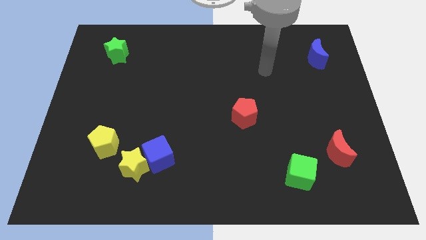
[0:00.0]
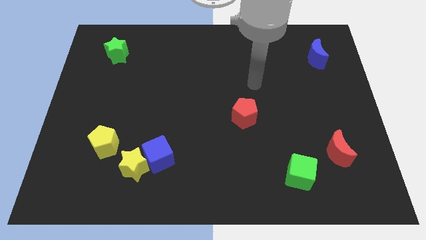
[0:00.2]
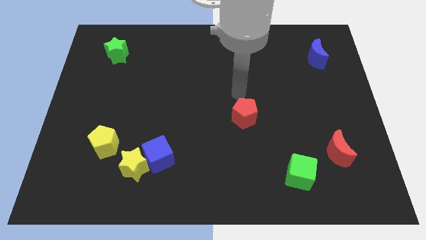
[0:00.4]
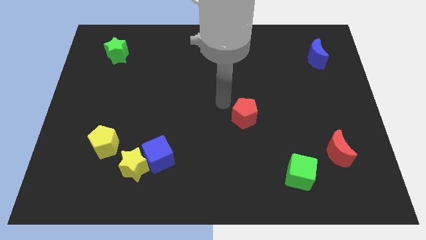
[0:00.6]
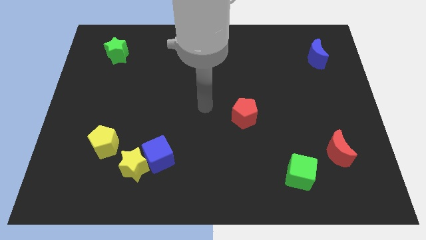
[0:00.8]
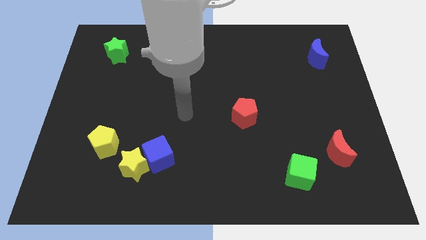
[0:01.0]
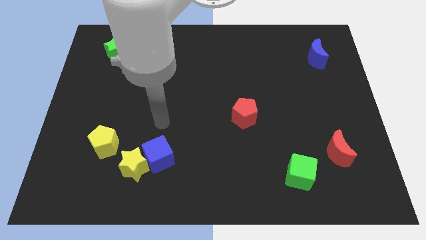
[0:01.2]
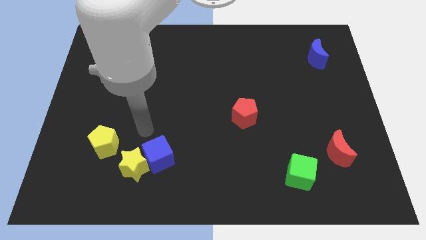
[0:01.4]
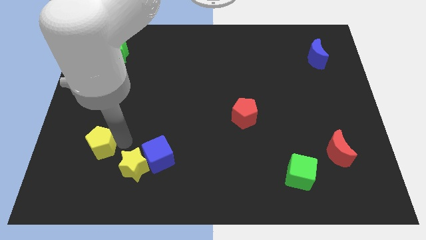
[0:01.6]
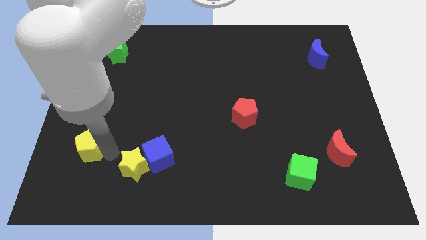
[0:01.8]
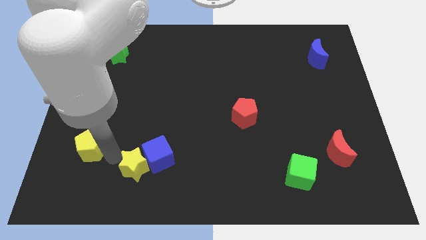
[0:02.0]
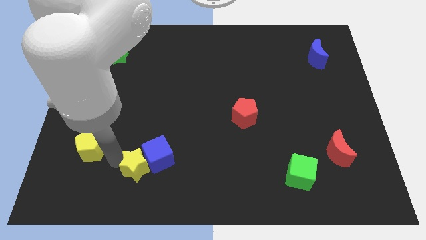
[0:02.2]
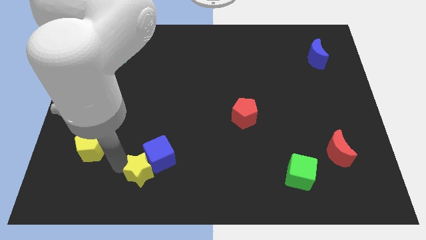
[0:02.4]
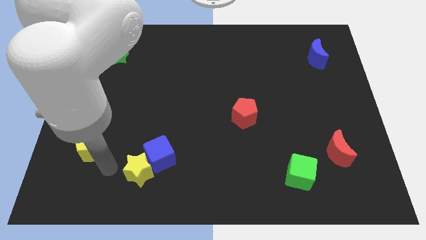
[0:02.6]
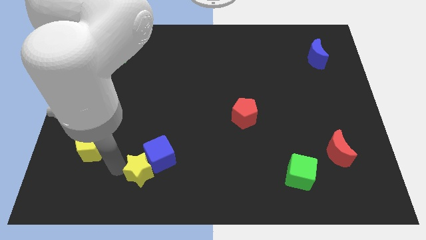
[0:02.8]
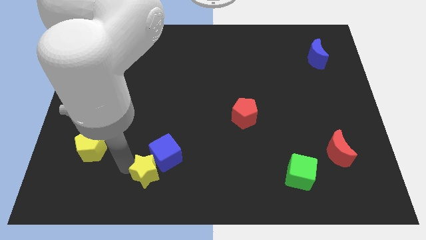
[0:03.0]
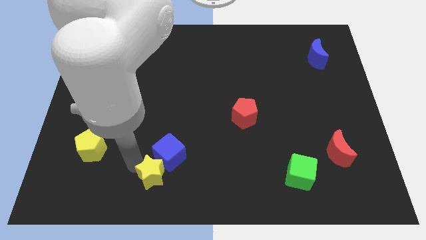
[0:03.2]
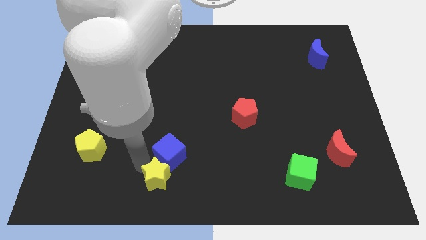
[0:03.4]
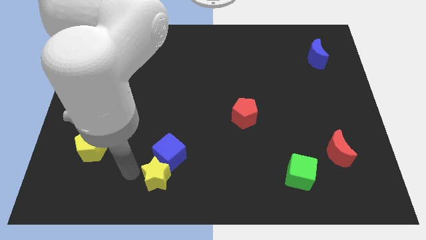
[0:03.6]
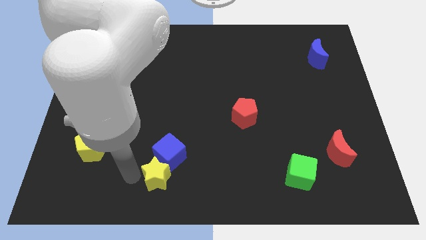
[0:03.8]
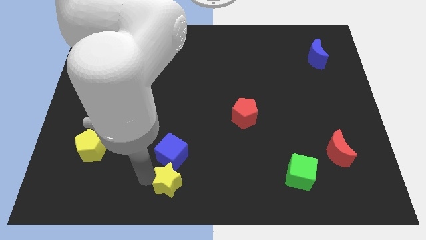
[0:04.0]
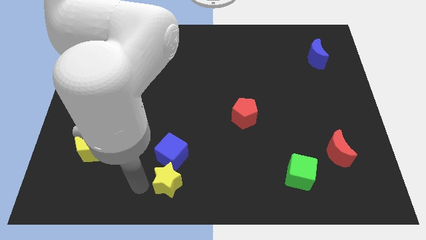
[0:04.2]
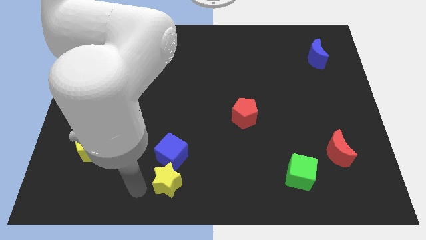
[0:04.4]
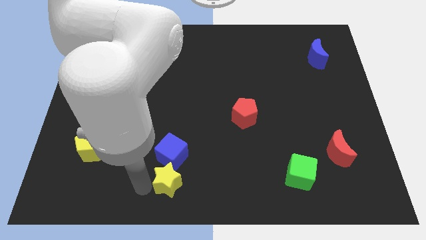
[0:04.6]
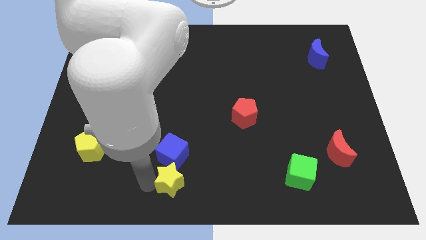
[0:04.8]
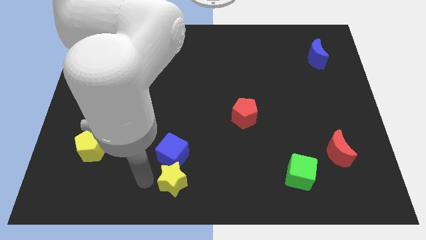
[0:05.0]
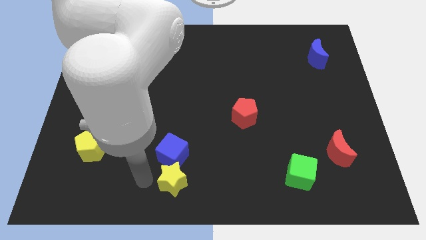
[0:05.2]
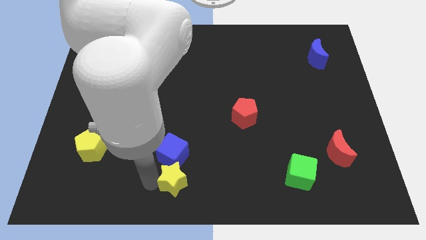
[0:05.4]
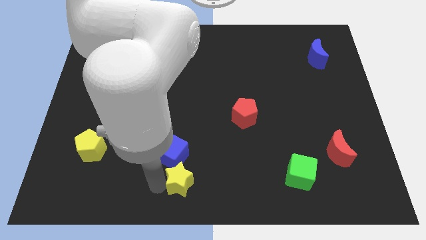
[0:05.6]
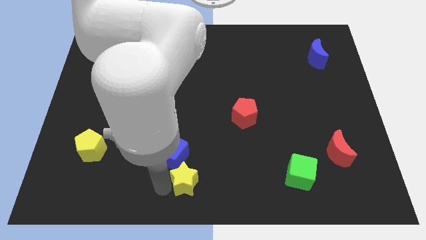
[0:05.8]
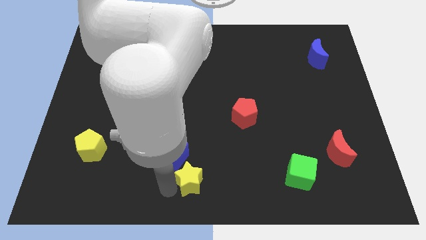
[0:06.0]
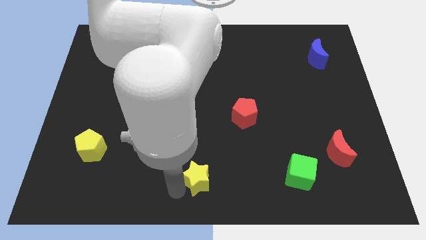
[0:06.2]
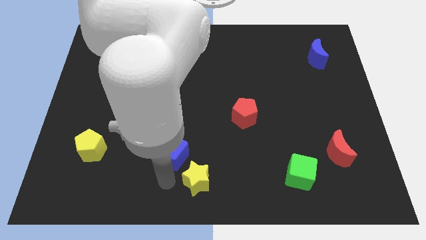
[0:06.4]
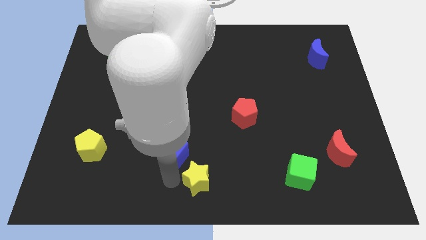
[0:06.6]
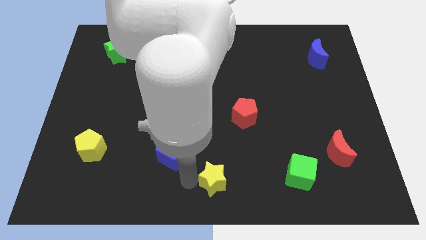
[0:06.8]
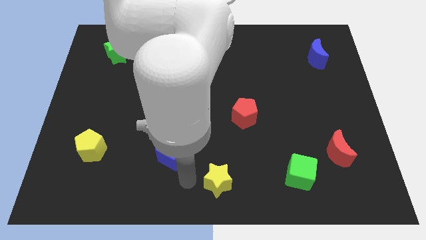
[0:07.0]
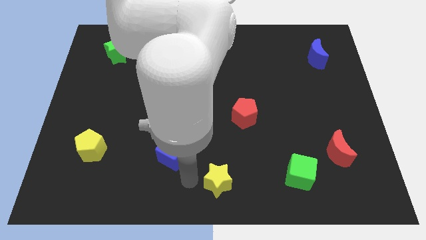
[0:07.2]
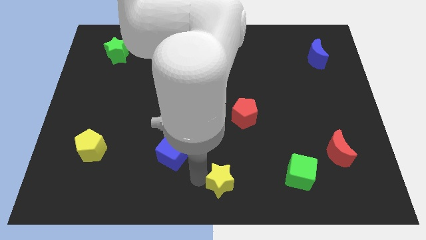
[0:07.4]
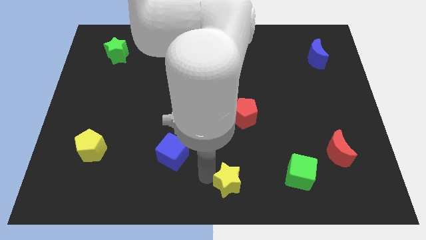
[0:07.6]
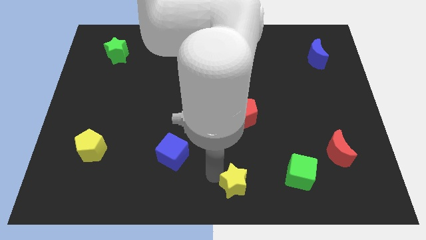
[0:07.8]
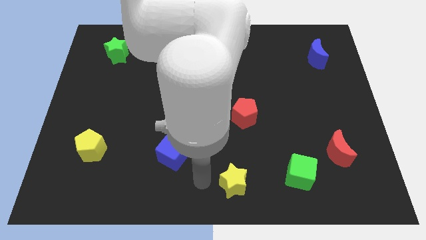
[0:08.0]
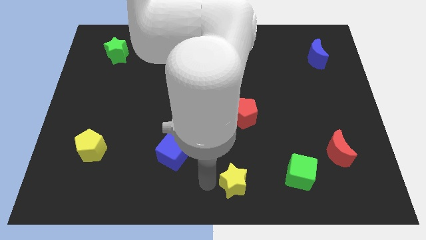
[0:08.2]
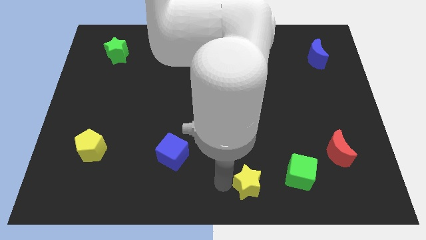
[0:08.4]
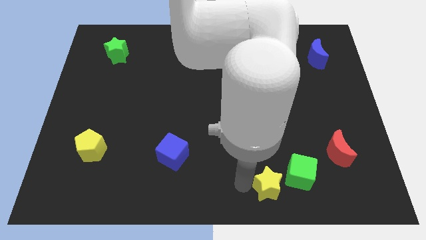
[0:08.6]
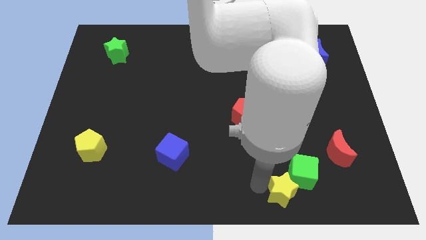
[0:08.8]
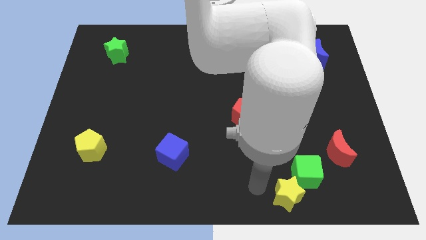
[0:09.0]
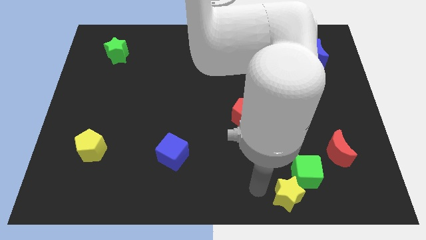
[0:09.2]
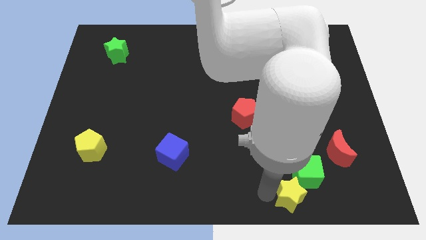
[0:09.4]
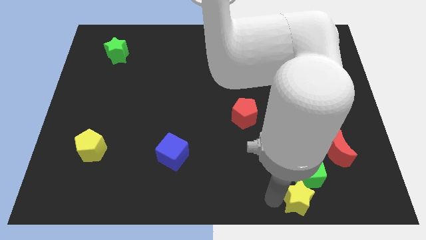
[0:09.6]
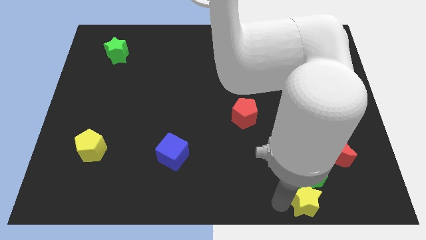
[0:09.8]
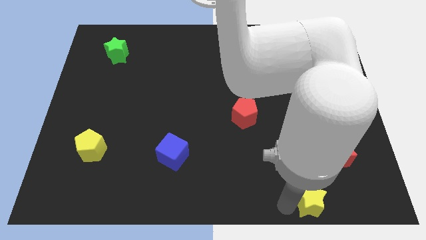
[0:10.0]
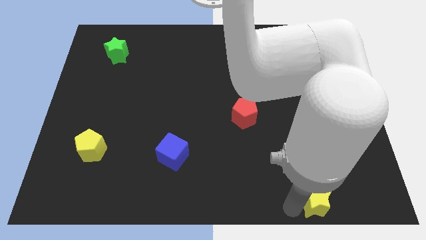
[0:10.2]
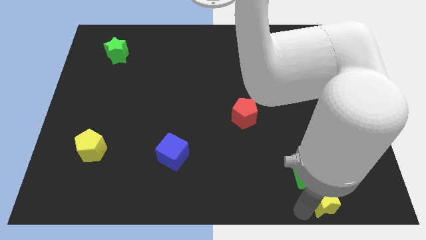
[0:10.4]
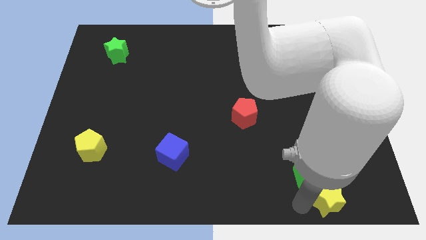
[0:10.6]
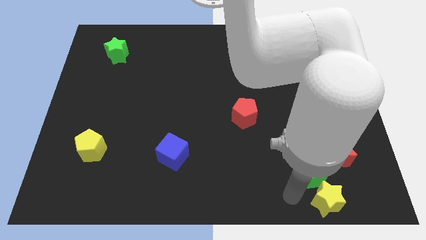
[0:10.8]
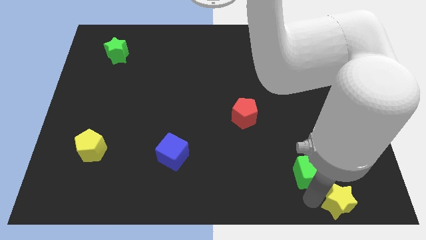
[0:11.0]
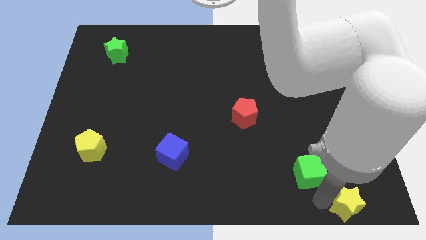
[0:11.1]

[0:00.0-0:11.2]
slide the yellow star to the bottom right of the board

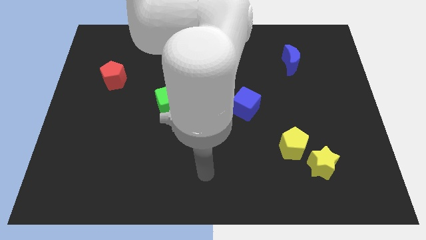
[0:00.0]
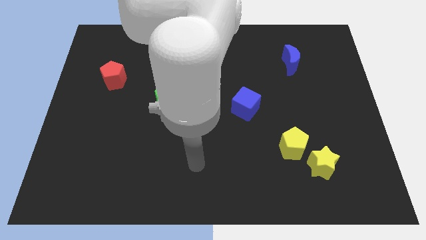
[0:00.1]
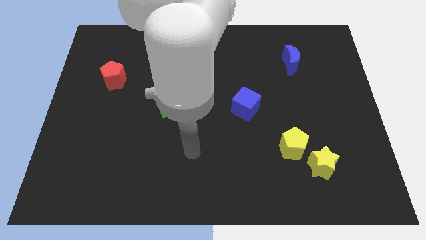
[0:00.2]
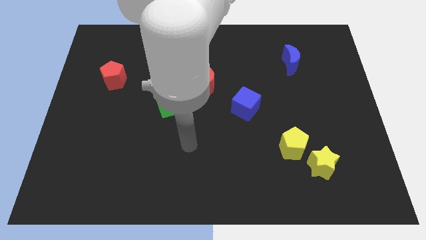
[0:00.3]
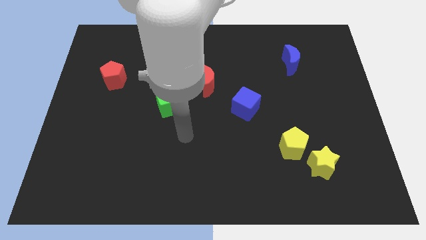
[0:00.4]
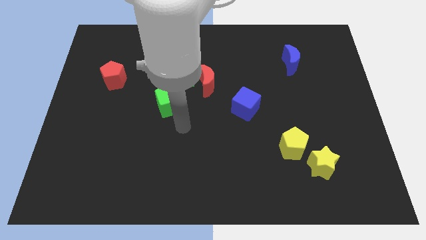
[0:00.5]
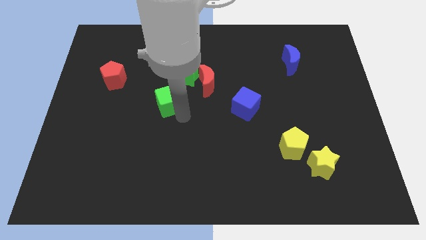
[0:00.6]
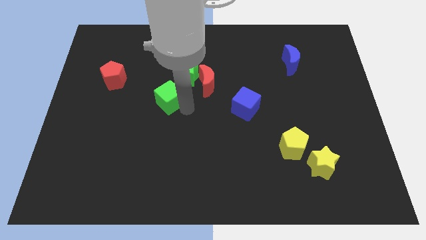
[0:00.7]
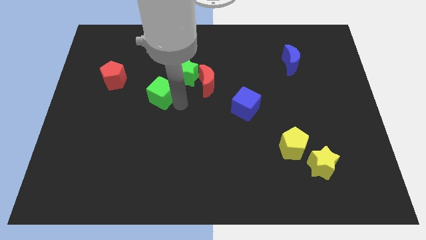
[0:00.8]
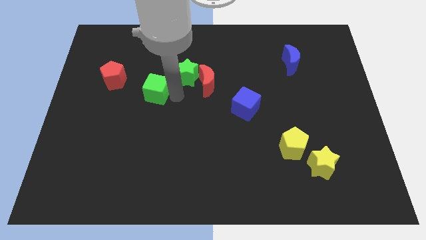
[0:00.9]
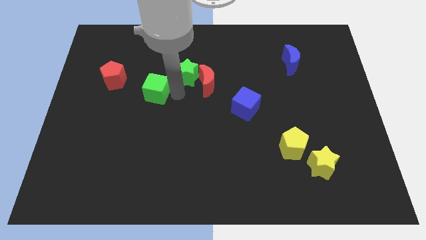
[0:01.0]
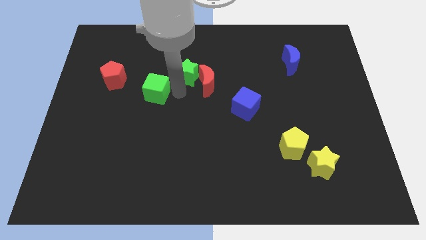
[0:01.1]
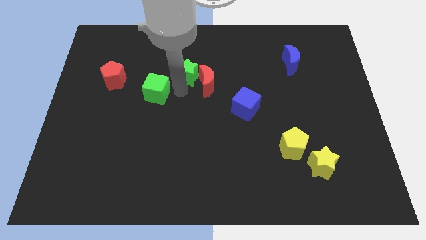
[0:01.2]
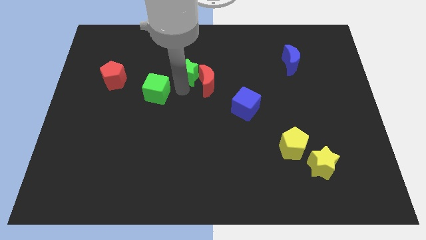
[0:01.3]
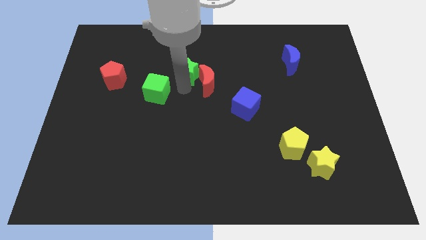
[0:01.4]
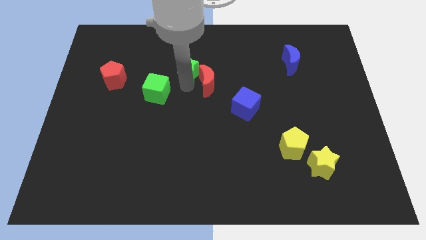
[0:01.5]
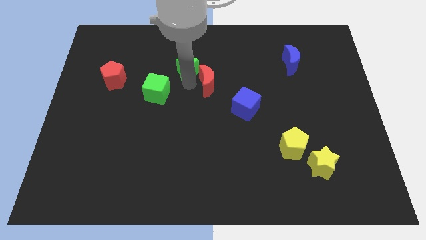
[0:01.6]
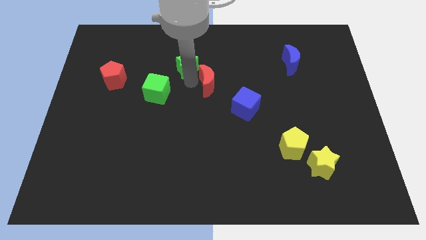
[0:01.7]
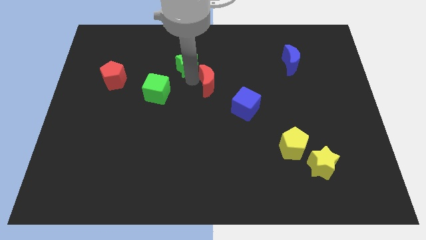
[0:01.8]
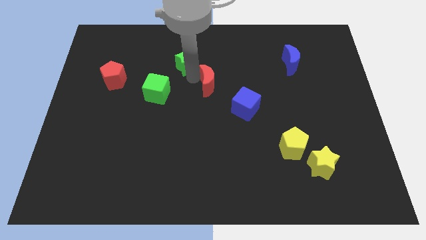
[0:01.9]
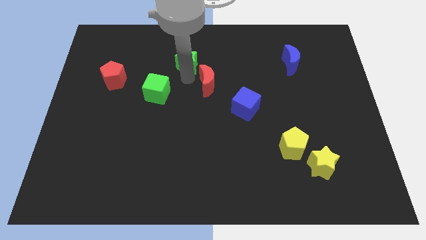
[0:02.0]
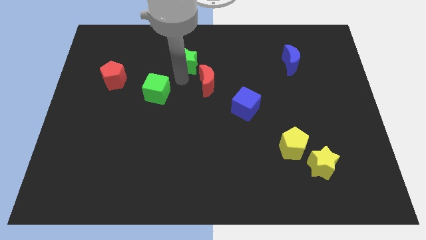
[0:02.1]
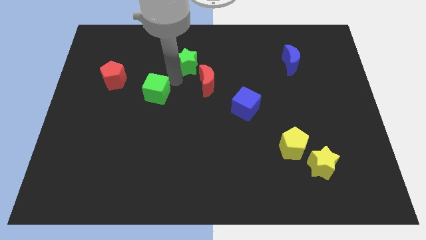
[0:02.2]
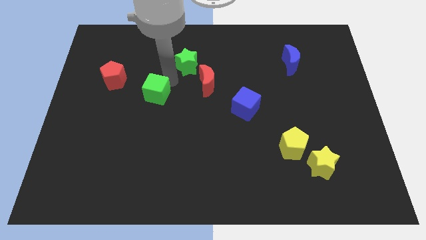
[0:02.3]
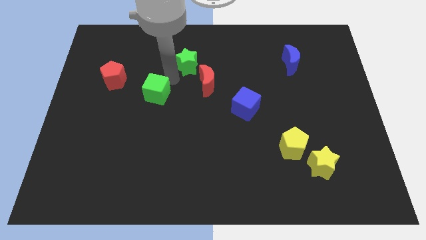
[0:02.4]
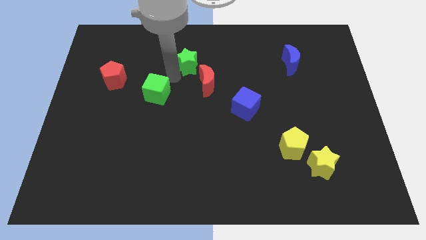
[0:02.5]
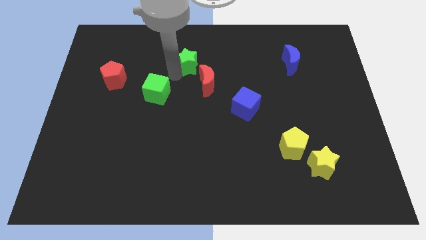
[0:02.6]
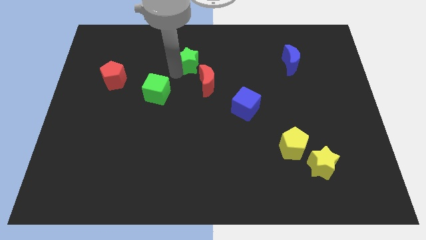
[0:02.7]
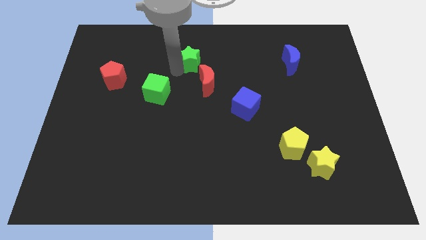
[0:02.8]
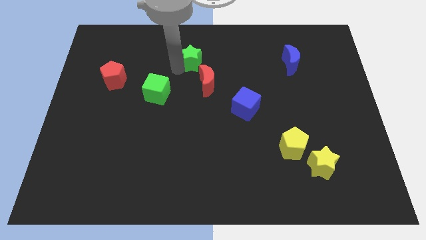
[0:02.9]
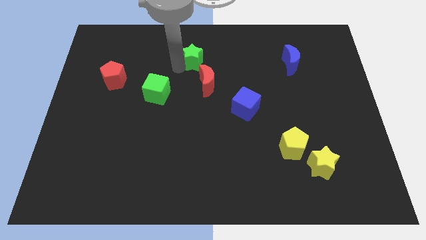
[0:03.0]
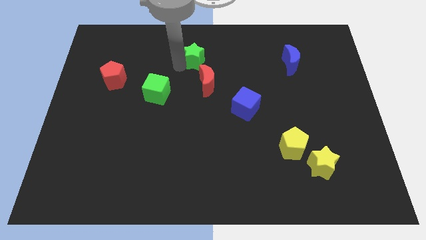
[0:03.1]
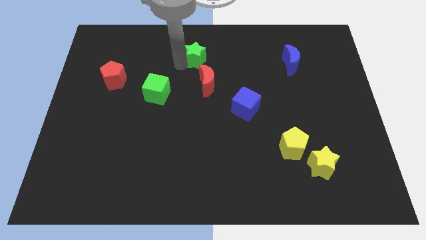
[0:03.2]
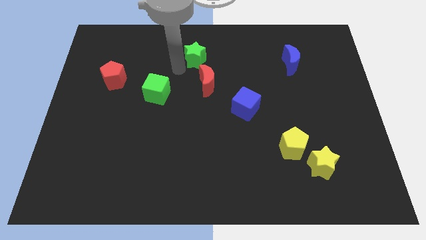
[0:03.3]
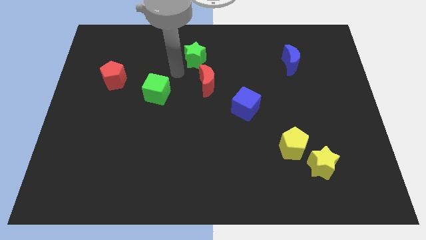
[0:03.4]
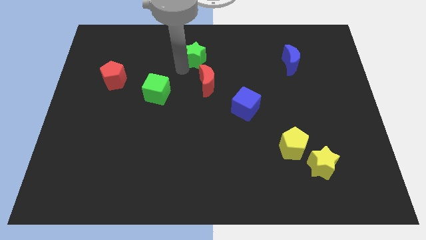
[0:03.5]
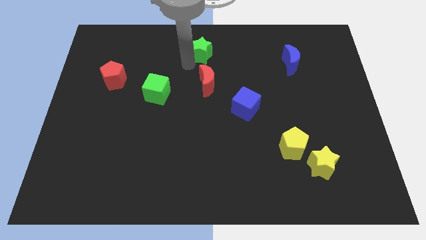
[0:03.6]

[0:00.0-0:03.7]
move the green star to the top
